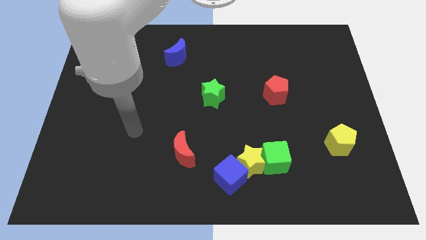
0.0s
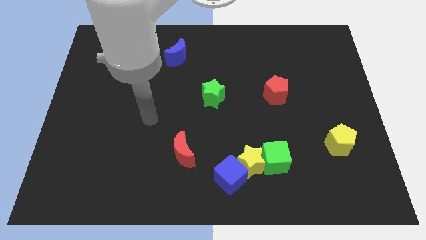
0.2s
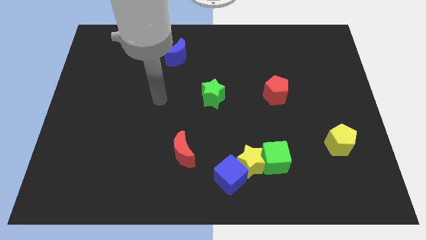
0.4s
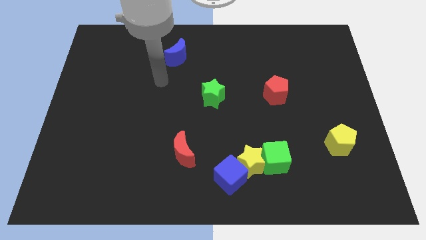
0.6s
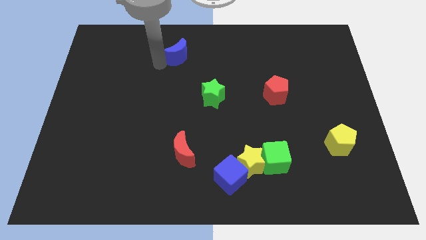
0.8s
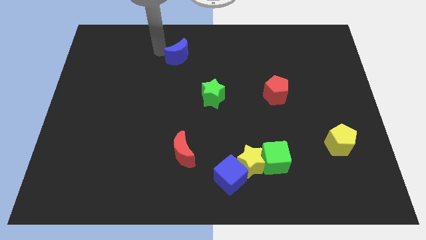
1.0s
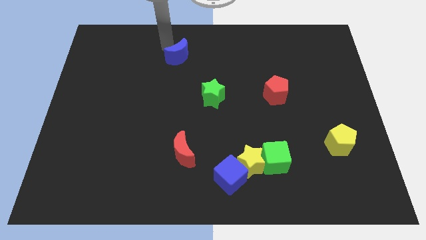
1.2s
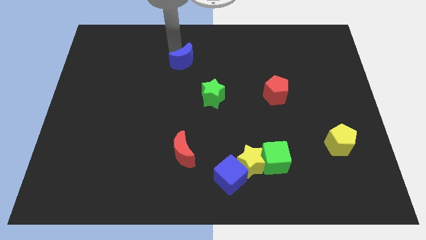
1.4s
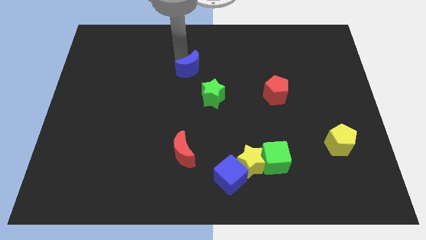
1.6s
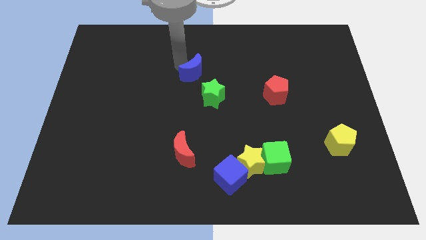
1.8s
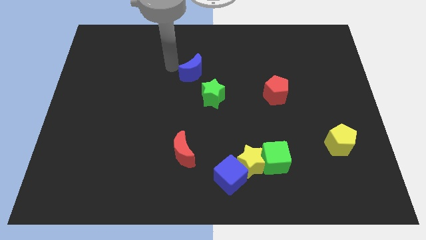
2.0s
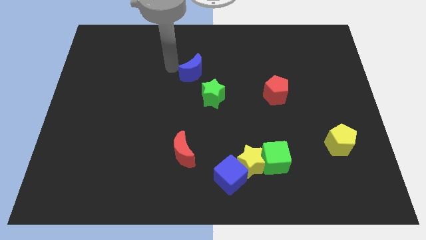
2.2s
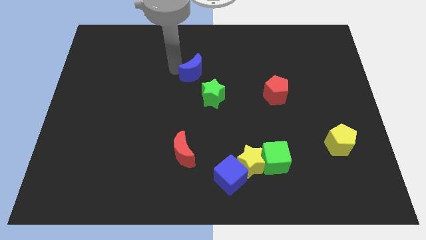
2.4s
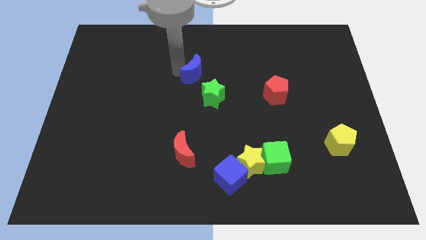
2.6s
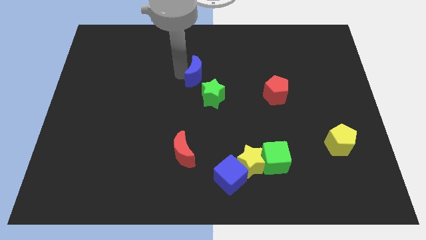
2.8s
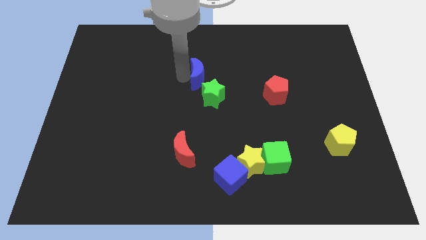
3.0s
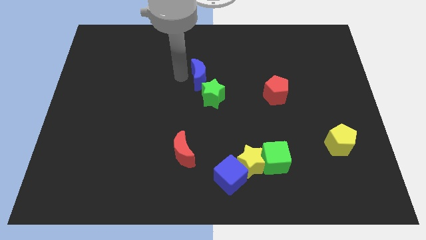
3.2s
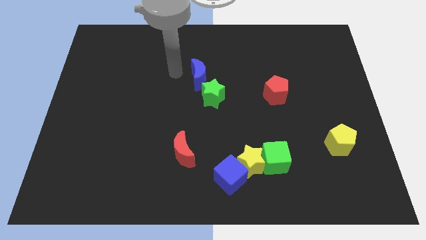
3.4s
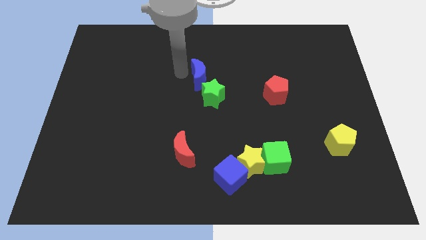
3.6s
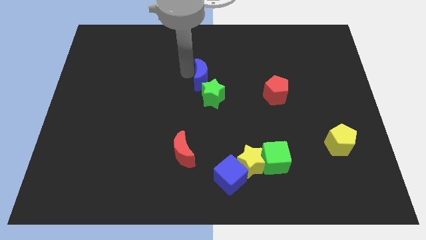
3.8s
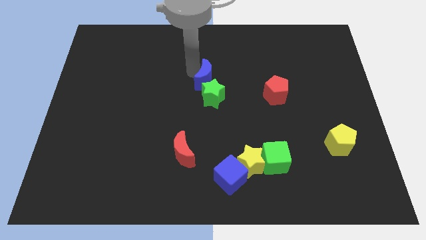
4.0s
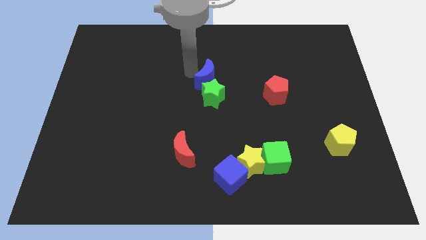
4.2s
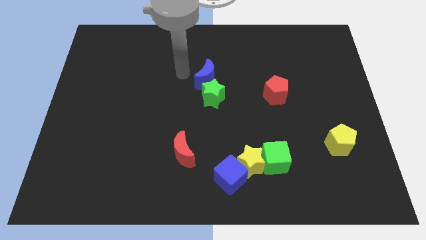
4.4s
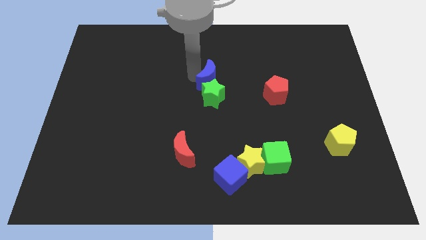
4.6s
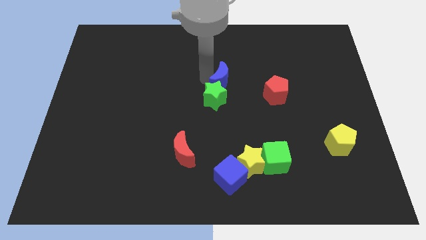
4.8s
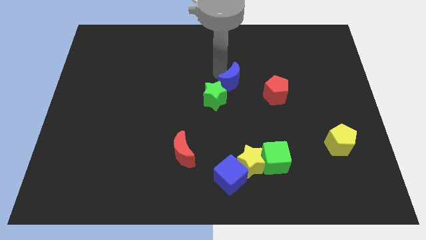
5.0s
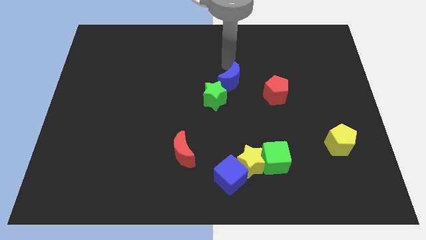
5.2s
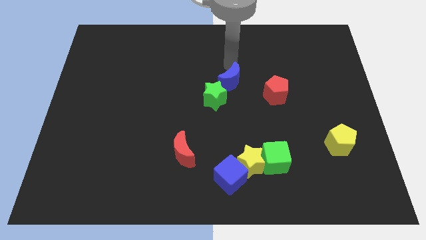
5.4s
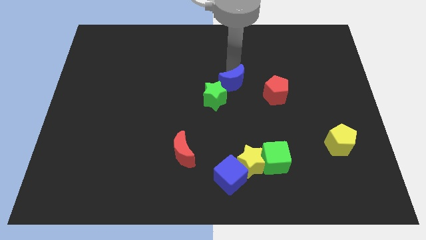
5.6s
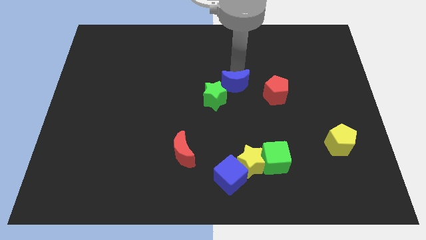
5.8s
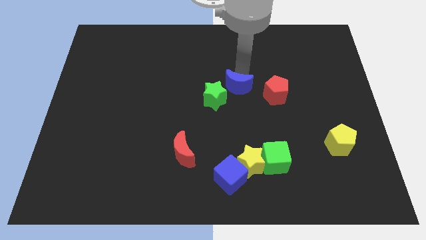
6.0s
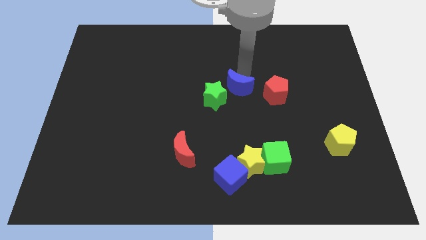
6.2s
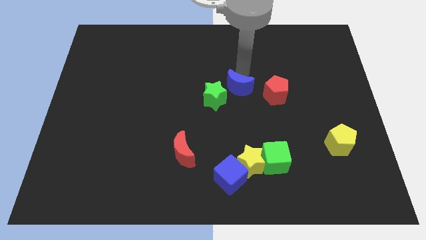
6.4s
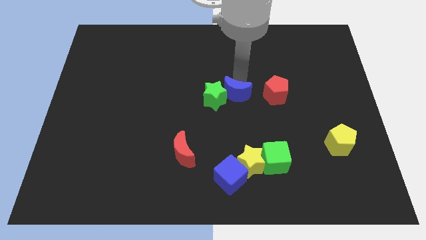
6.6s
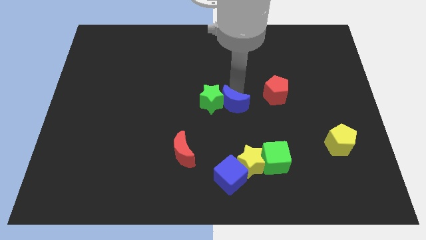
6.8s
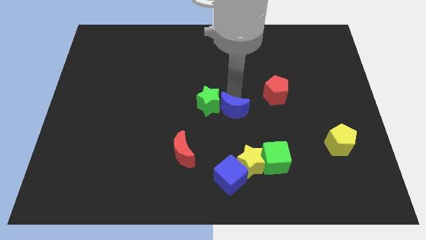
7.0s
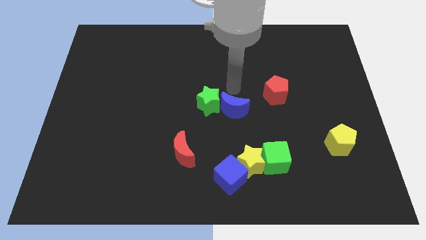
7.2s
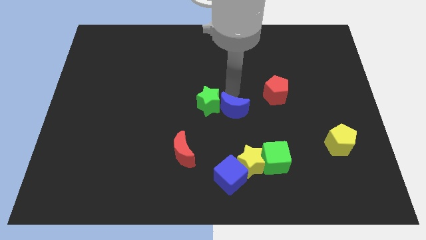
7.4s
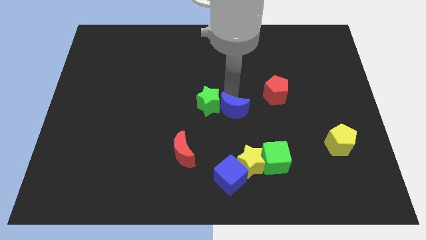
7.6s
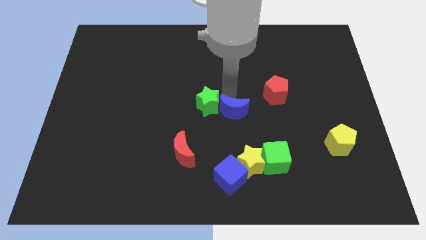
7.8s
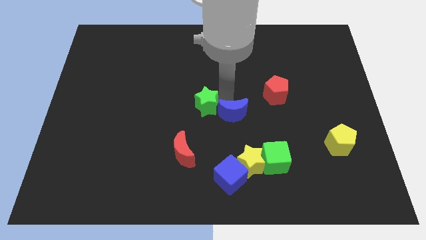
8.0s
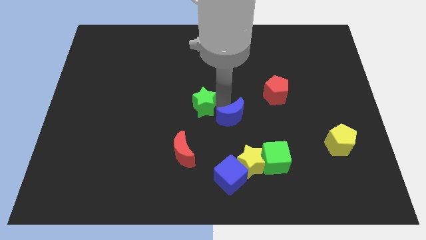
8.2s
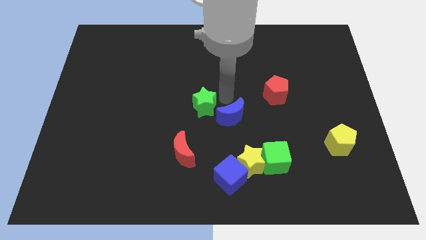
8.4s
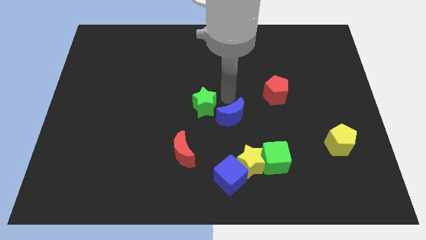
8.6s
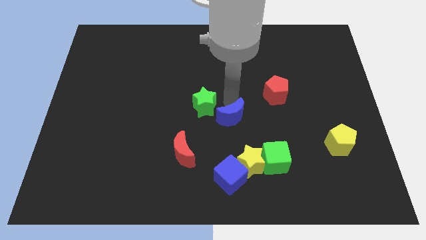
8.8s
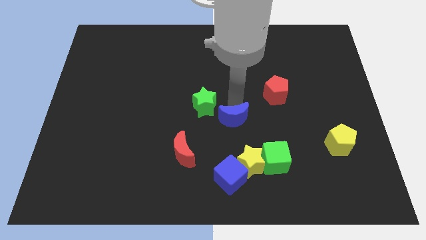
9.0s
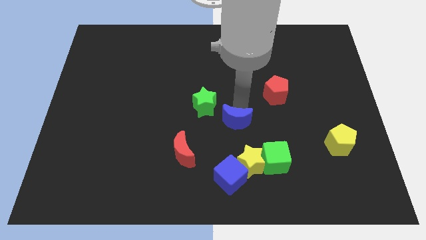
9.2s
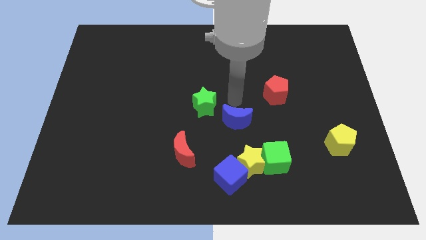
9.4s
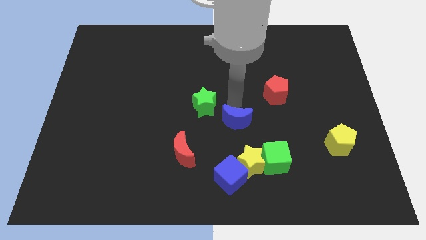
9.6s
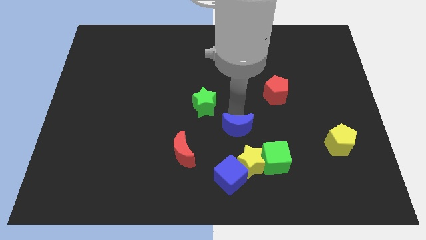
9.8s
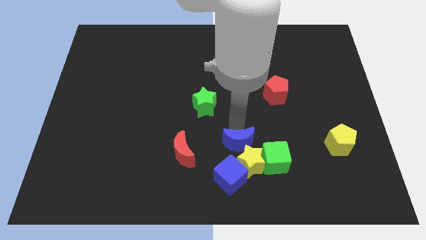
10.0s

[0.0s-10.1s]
move the blue moon to the yellow star

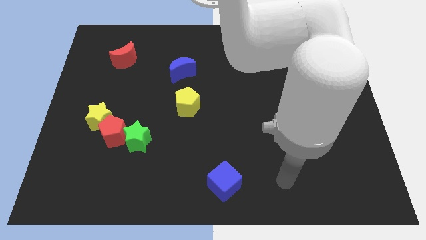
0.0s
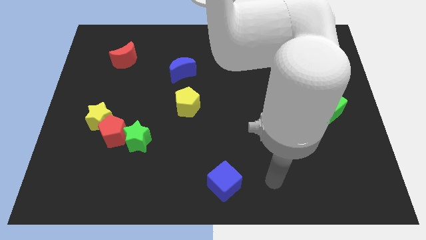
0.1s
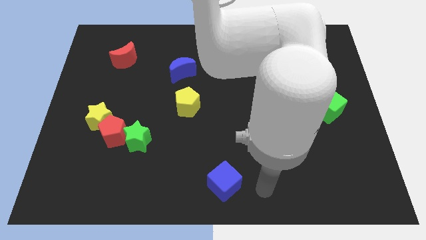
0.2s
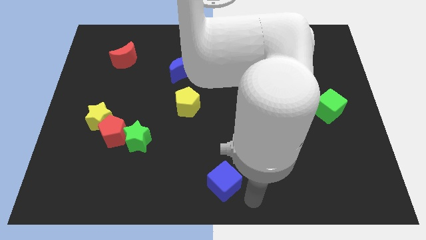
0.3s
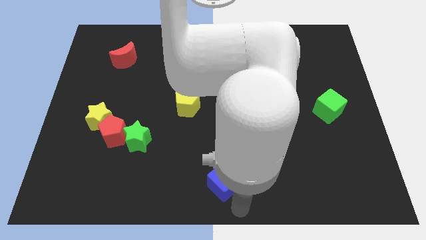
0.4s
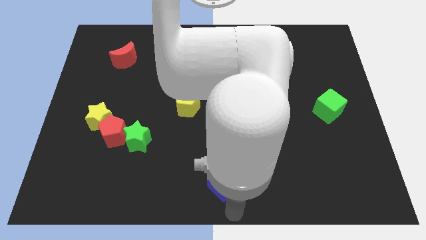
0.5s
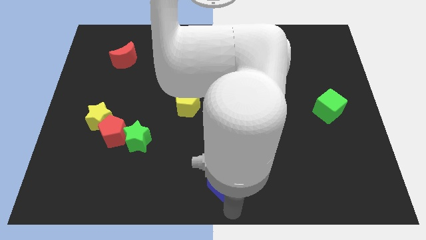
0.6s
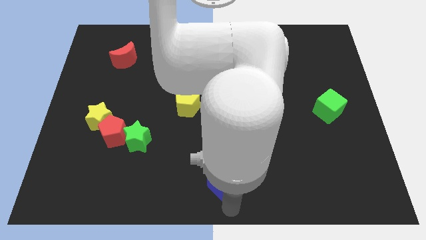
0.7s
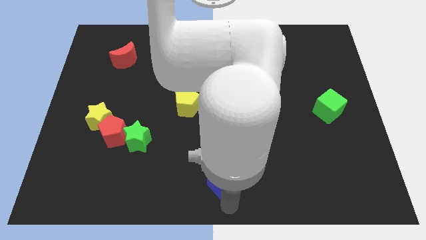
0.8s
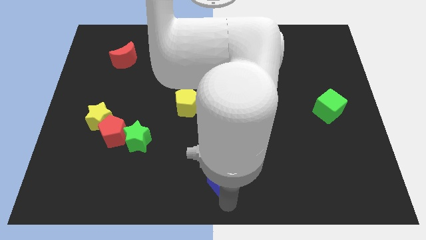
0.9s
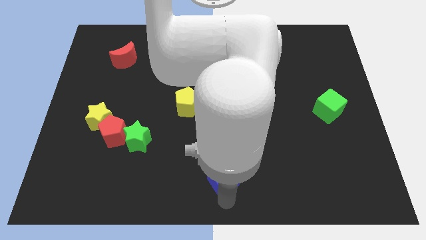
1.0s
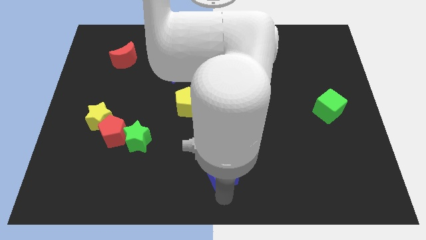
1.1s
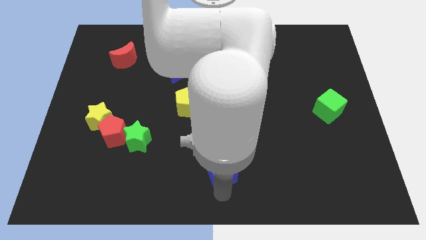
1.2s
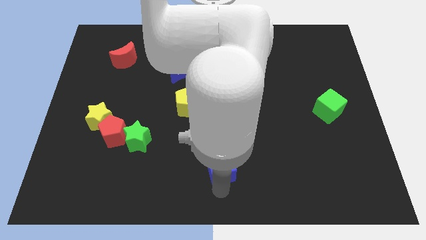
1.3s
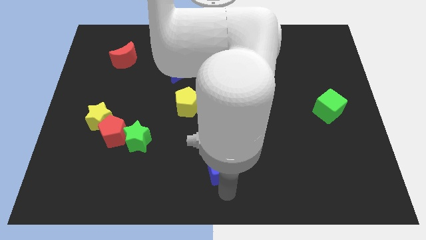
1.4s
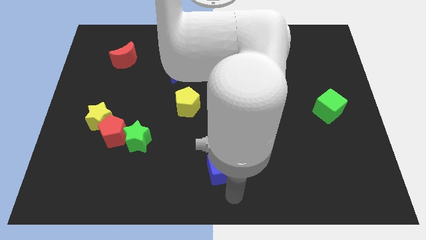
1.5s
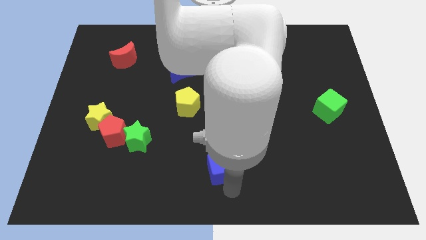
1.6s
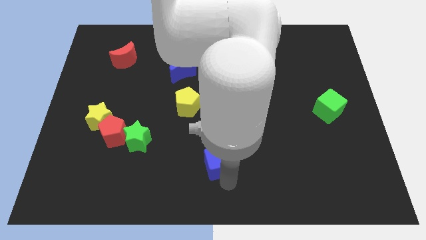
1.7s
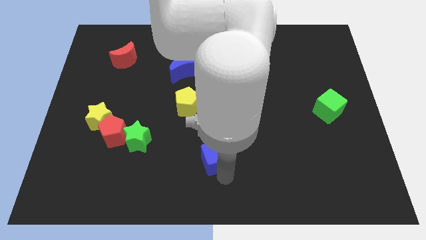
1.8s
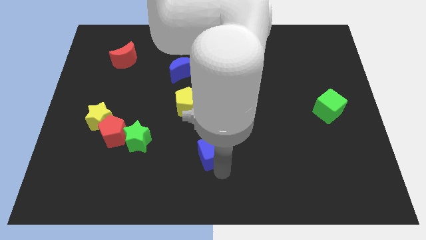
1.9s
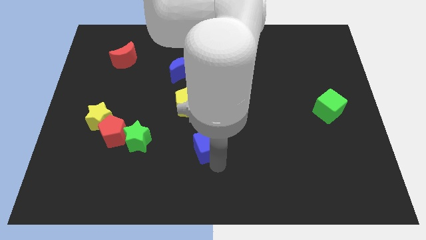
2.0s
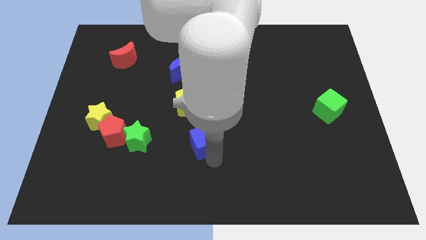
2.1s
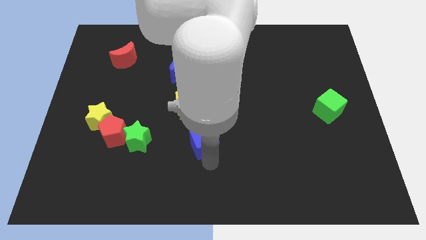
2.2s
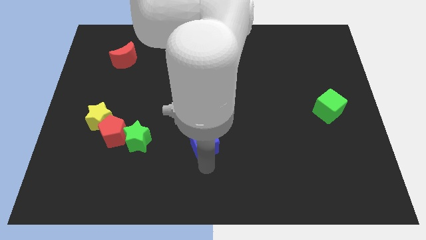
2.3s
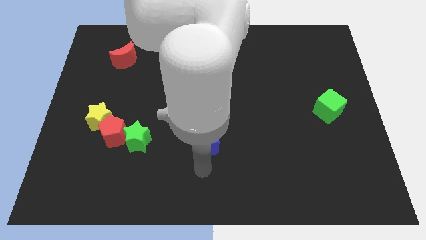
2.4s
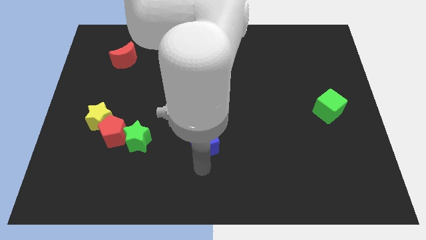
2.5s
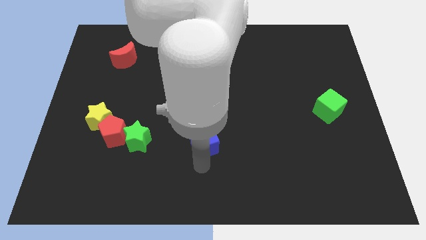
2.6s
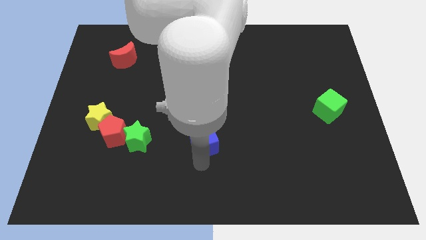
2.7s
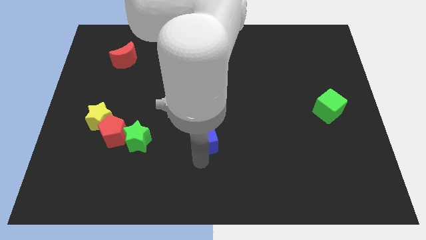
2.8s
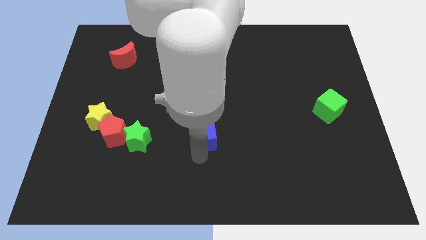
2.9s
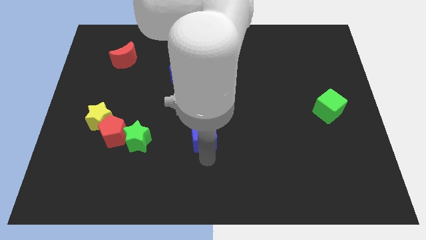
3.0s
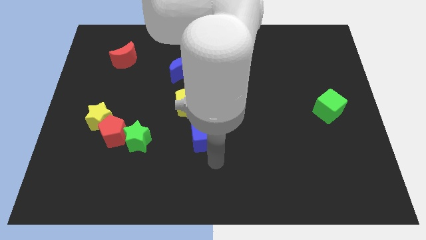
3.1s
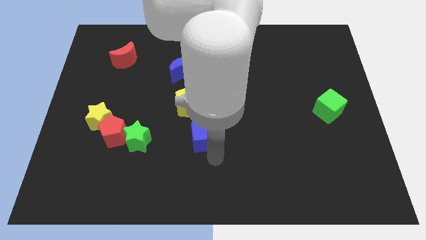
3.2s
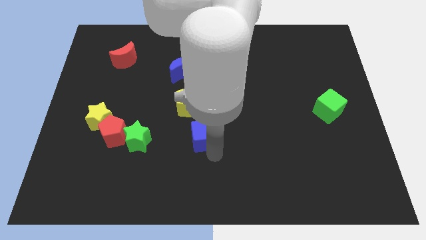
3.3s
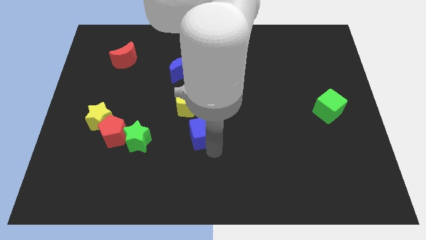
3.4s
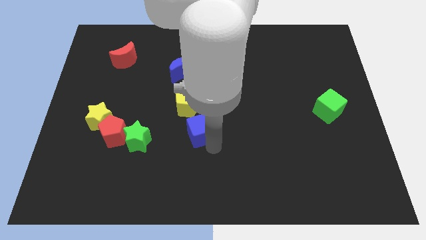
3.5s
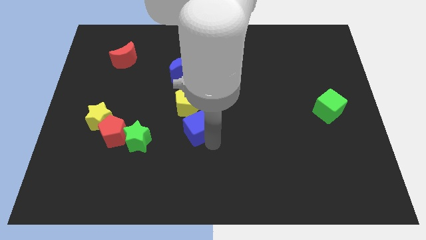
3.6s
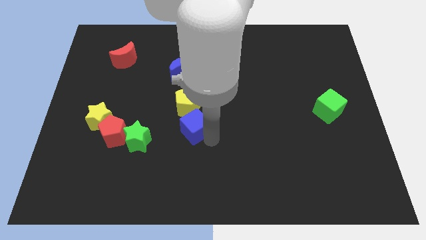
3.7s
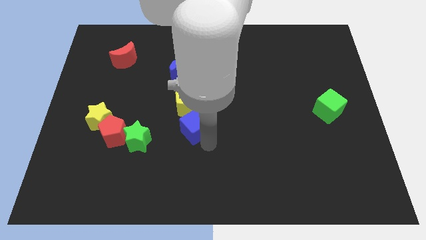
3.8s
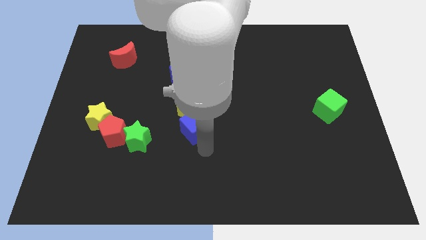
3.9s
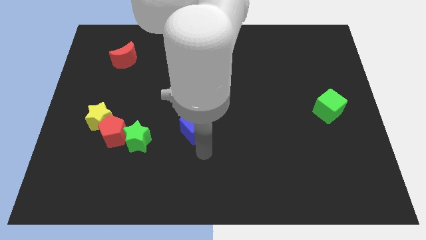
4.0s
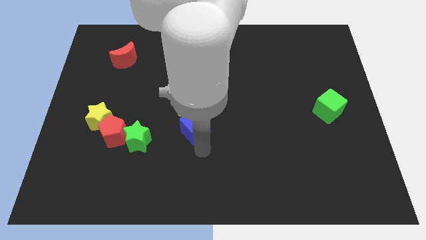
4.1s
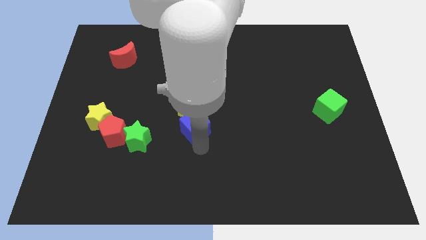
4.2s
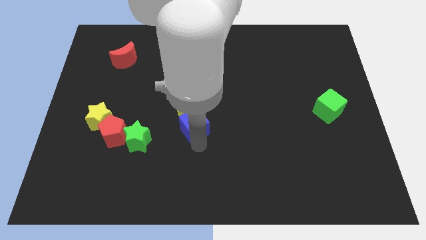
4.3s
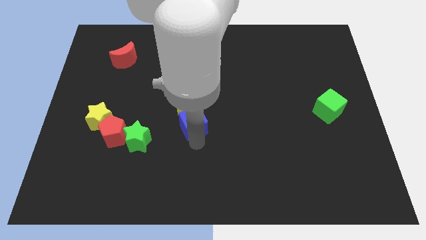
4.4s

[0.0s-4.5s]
slide the blue cube next to the yellow pentagon
